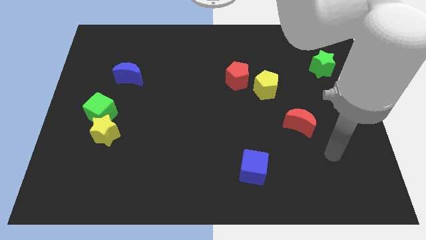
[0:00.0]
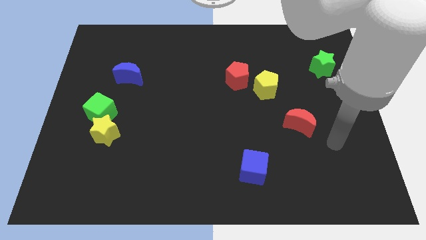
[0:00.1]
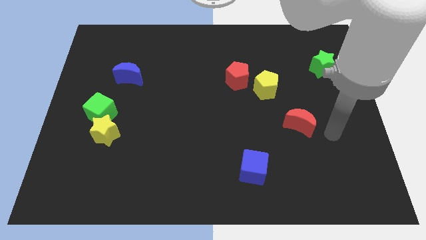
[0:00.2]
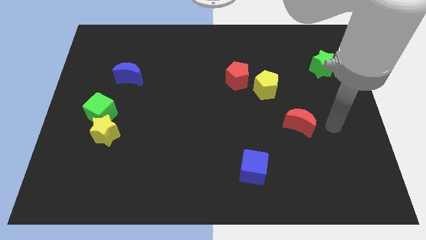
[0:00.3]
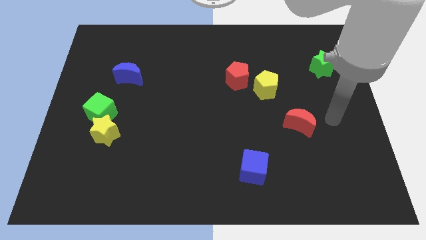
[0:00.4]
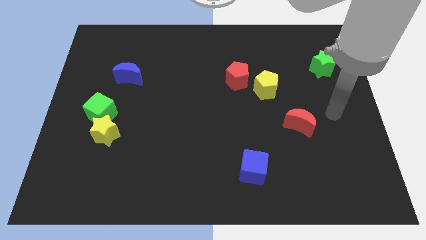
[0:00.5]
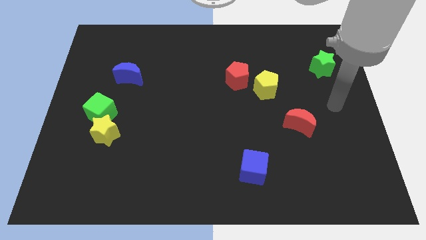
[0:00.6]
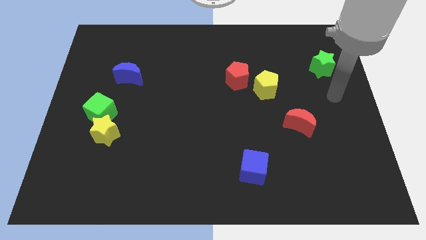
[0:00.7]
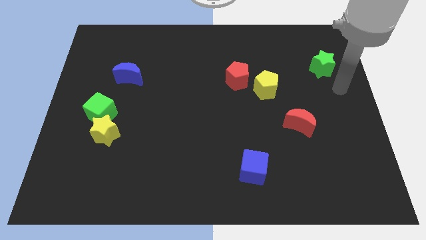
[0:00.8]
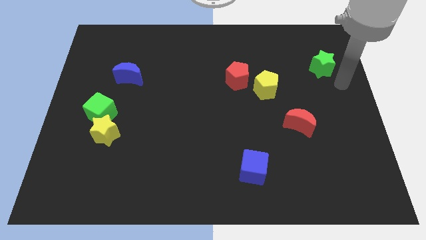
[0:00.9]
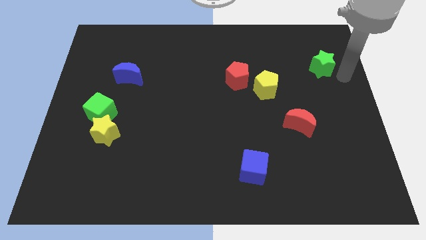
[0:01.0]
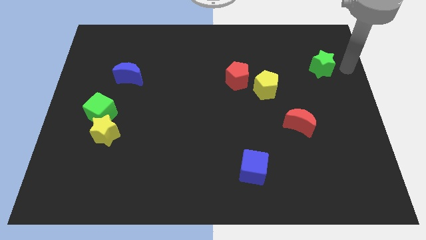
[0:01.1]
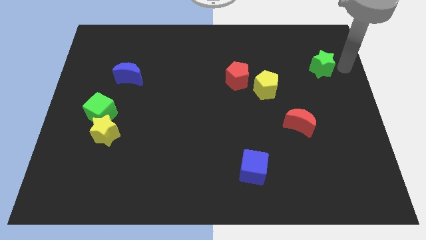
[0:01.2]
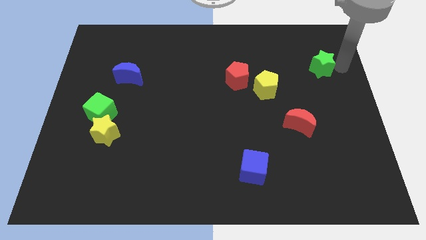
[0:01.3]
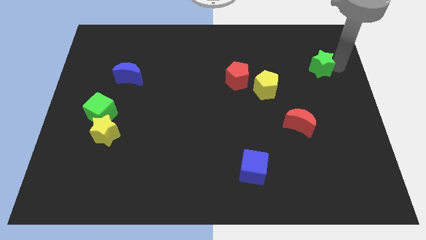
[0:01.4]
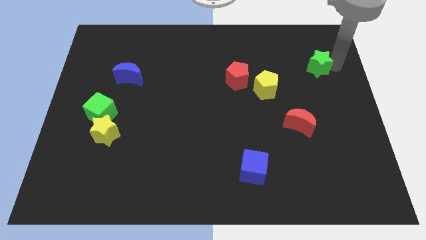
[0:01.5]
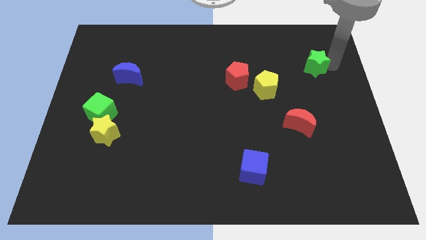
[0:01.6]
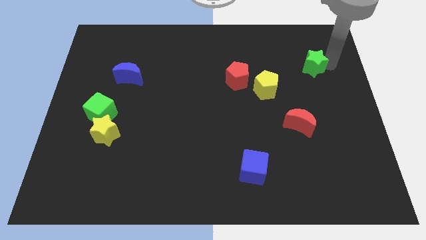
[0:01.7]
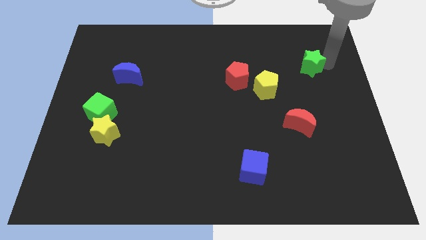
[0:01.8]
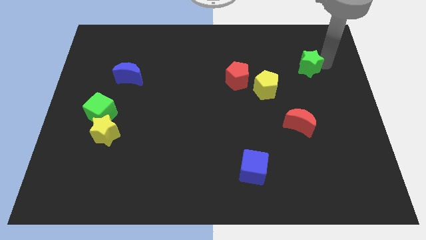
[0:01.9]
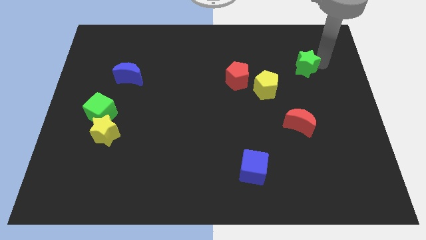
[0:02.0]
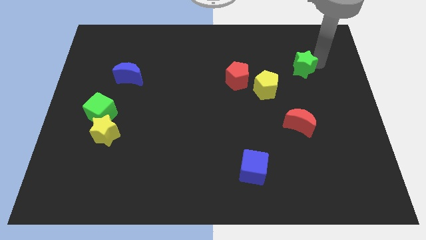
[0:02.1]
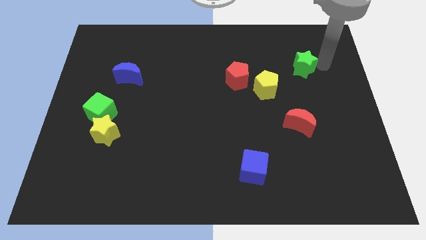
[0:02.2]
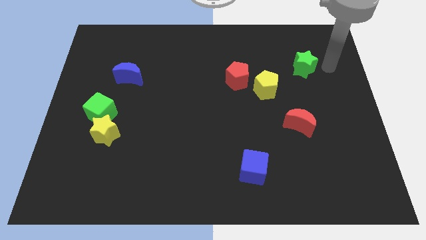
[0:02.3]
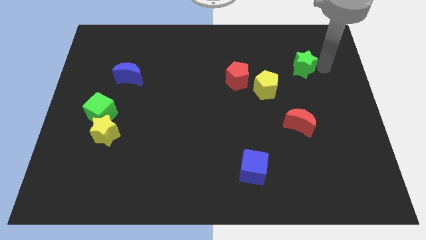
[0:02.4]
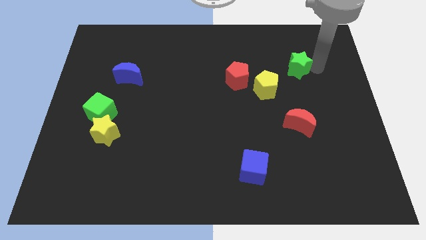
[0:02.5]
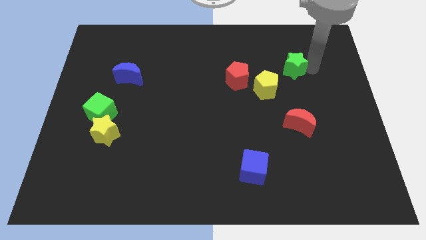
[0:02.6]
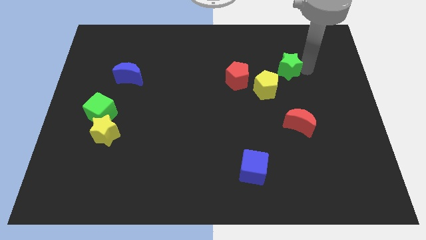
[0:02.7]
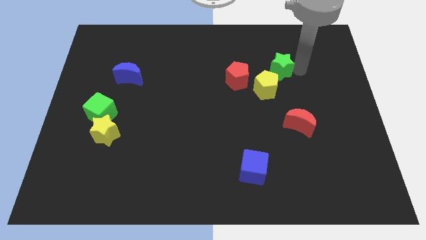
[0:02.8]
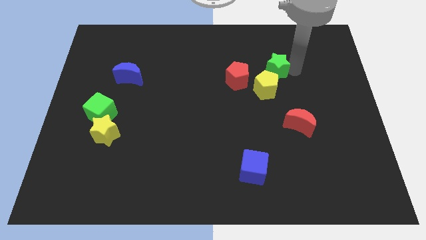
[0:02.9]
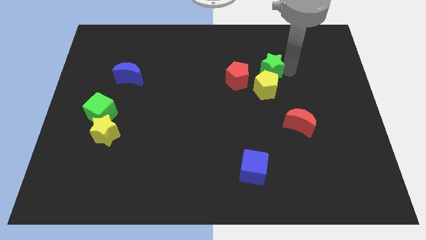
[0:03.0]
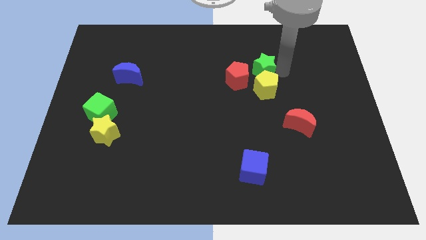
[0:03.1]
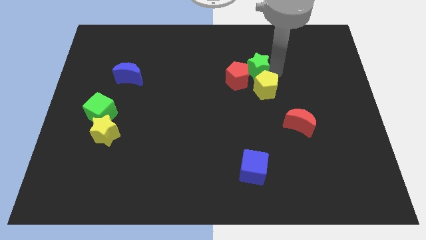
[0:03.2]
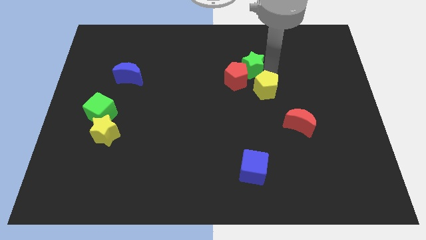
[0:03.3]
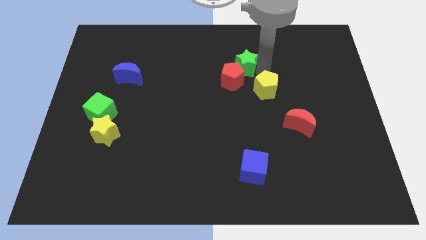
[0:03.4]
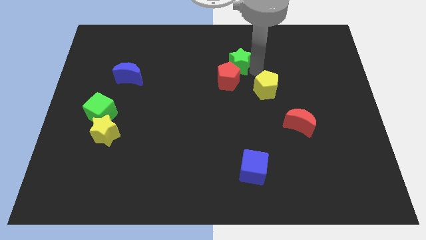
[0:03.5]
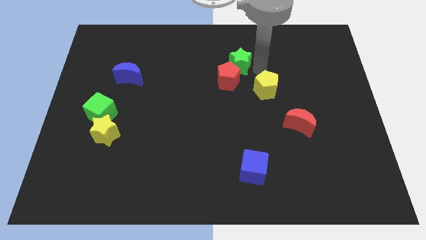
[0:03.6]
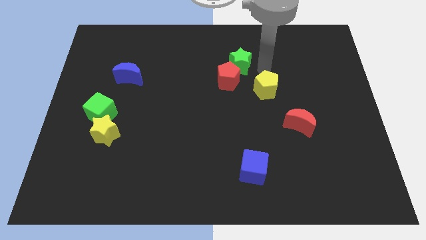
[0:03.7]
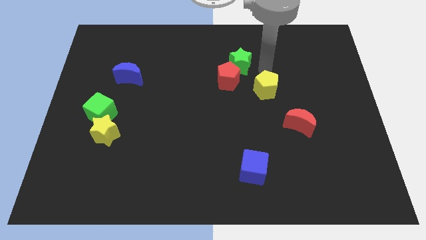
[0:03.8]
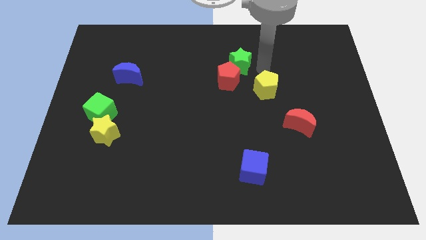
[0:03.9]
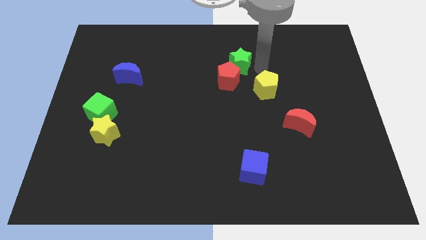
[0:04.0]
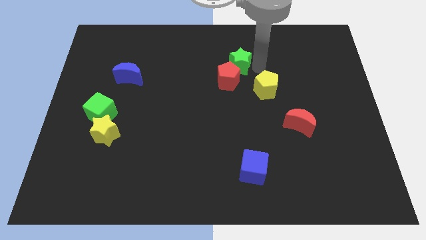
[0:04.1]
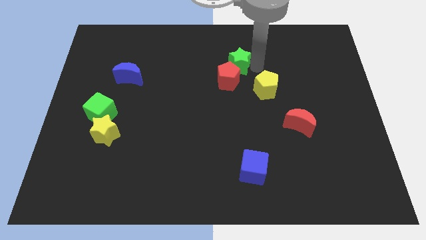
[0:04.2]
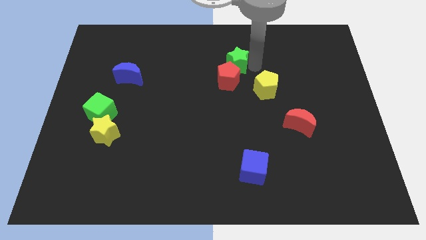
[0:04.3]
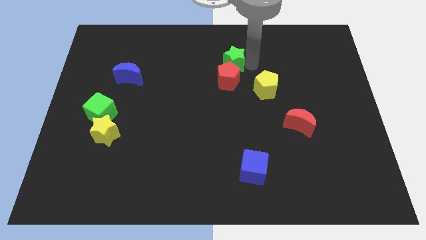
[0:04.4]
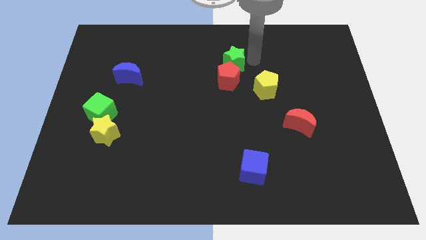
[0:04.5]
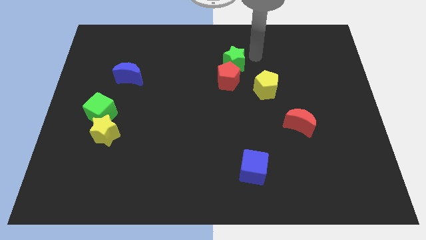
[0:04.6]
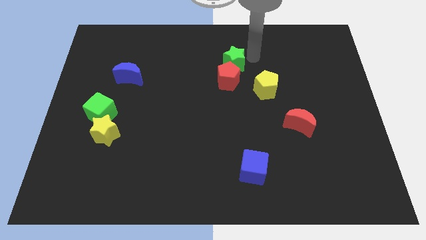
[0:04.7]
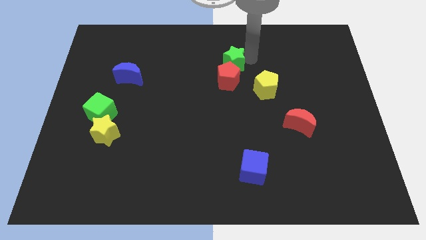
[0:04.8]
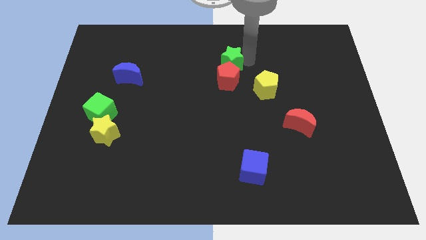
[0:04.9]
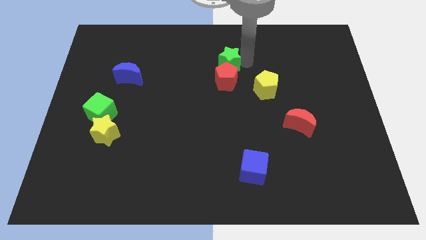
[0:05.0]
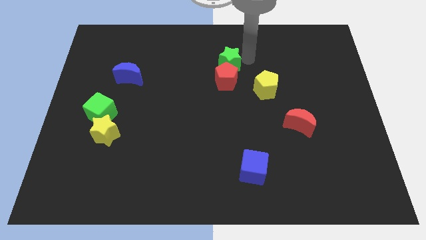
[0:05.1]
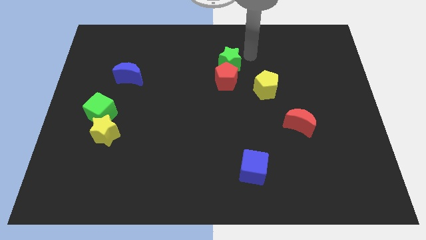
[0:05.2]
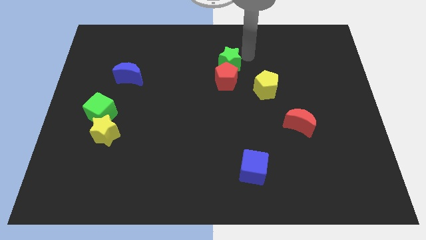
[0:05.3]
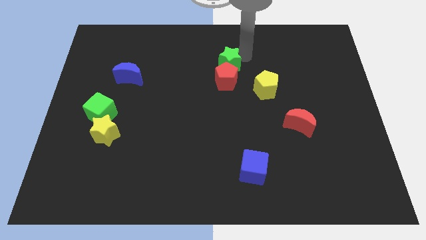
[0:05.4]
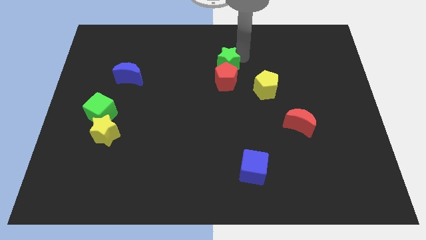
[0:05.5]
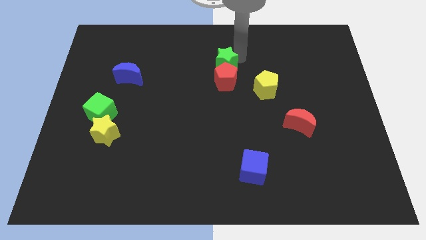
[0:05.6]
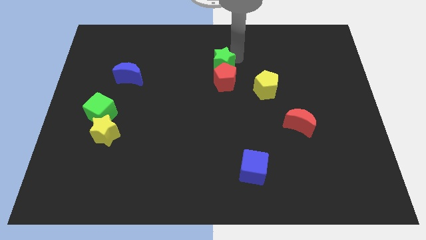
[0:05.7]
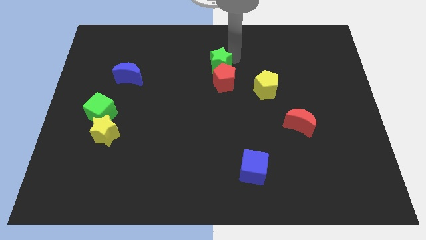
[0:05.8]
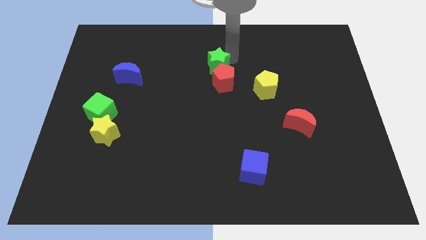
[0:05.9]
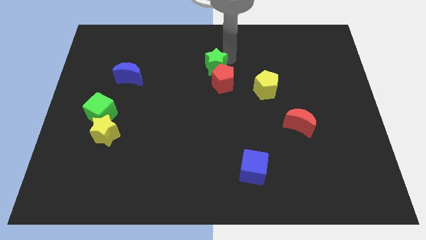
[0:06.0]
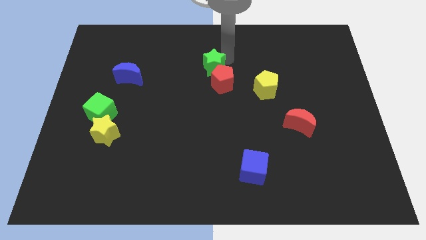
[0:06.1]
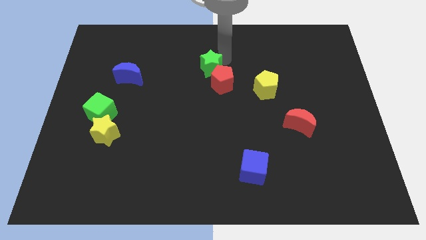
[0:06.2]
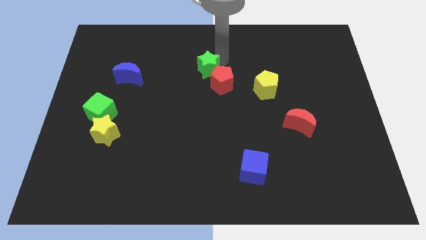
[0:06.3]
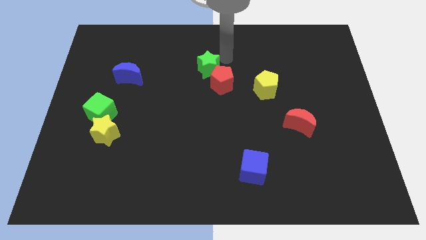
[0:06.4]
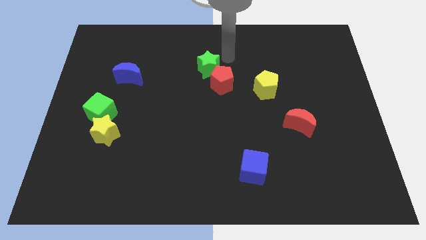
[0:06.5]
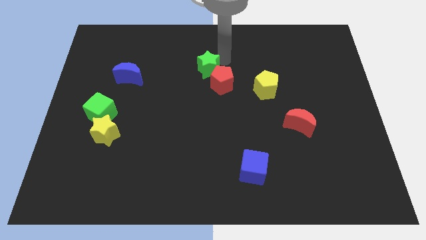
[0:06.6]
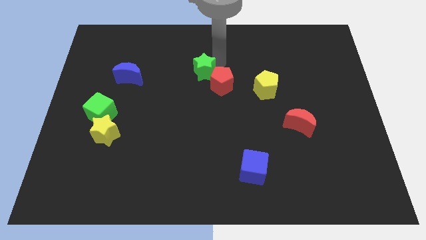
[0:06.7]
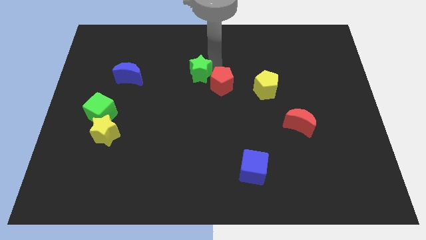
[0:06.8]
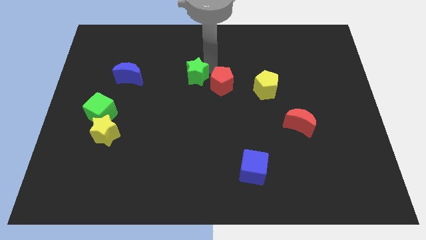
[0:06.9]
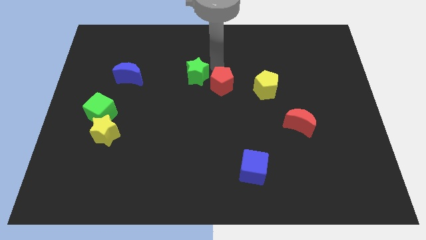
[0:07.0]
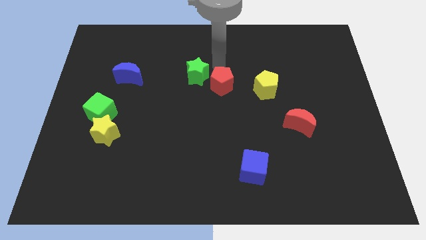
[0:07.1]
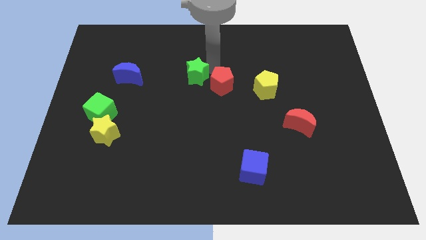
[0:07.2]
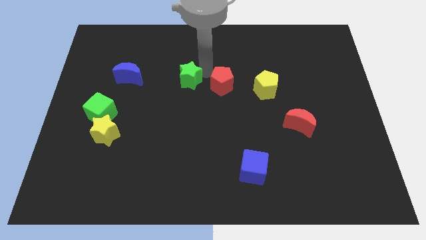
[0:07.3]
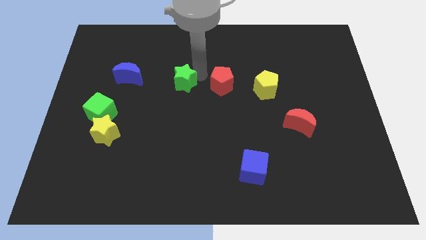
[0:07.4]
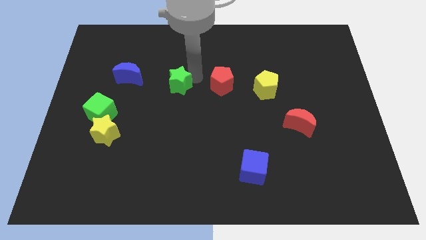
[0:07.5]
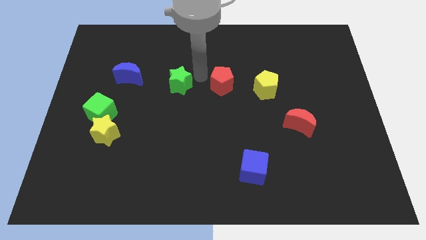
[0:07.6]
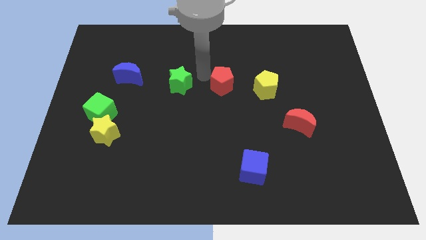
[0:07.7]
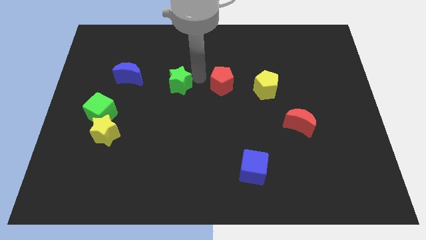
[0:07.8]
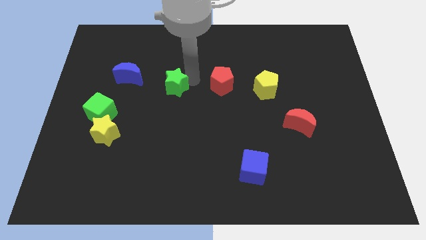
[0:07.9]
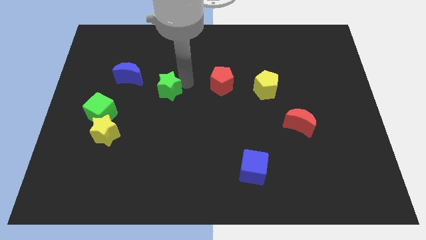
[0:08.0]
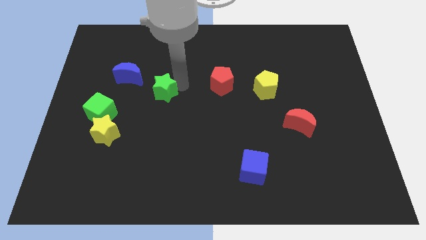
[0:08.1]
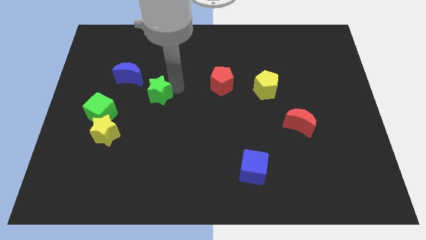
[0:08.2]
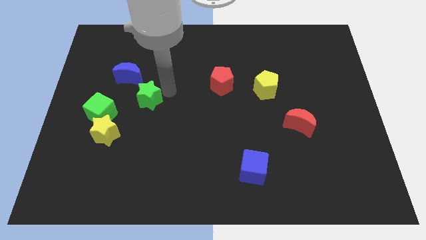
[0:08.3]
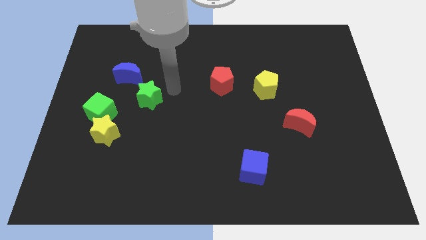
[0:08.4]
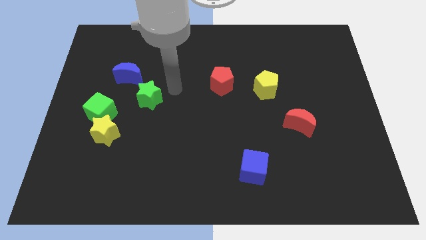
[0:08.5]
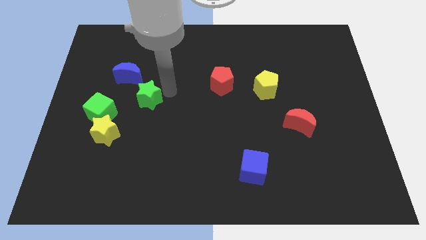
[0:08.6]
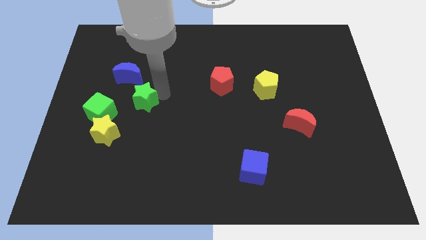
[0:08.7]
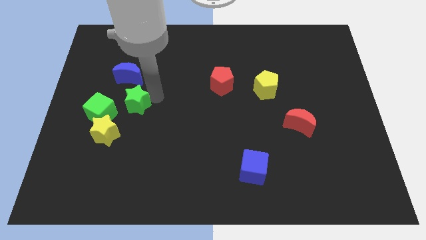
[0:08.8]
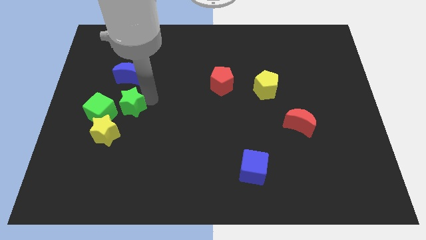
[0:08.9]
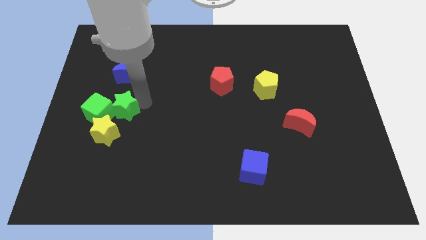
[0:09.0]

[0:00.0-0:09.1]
push the green star next to the green cube
